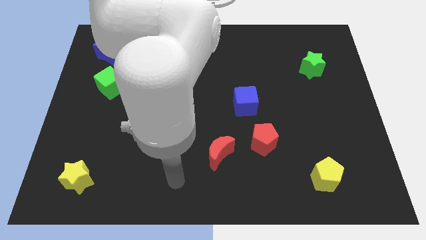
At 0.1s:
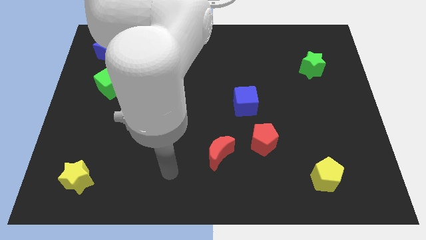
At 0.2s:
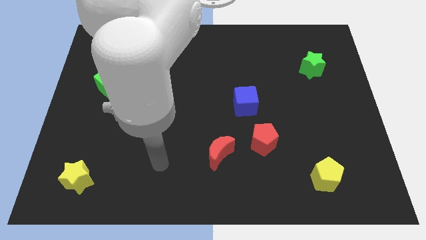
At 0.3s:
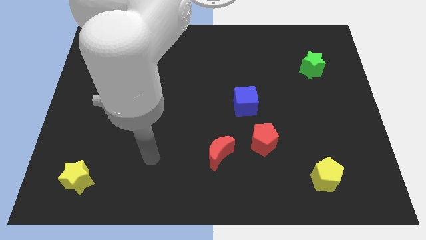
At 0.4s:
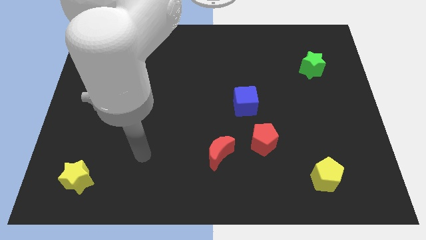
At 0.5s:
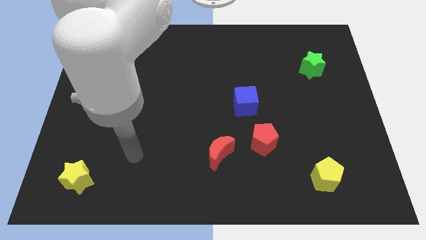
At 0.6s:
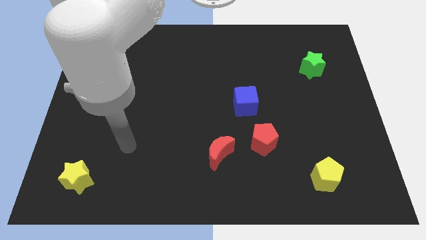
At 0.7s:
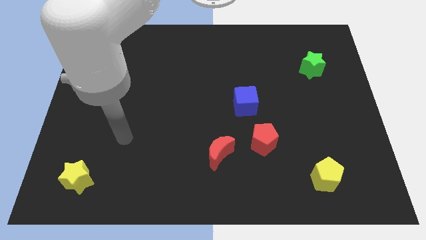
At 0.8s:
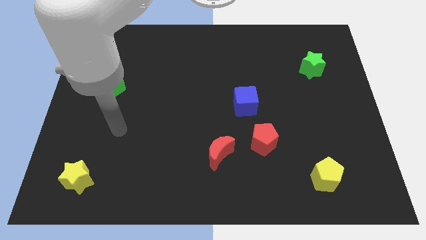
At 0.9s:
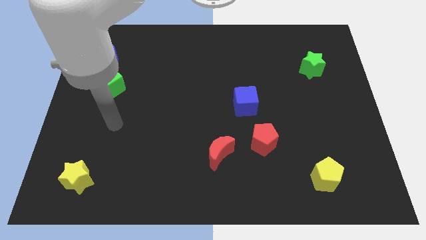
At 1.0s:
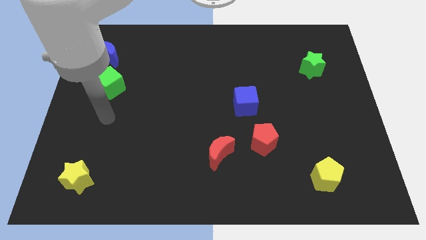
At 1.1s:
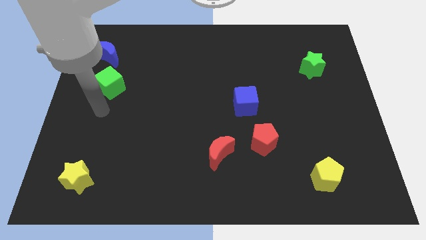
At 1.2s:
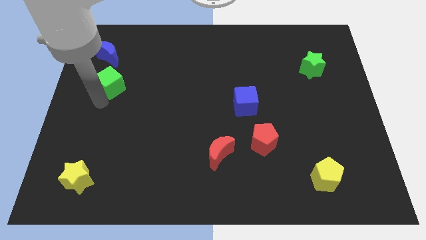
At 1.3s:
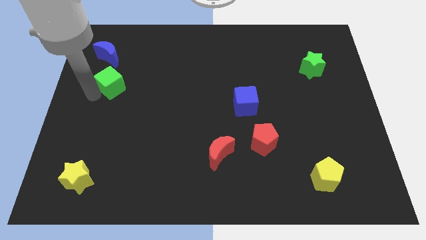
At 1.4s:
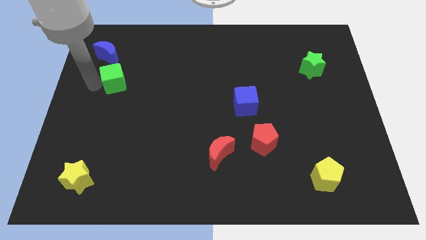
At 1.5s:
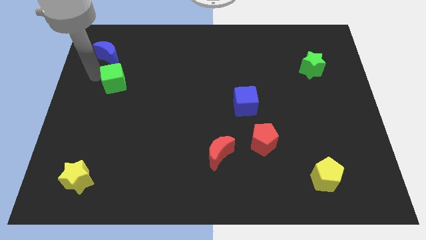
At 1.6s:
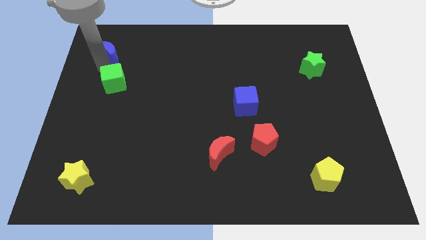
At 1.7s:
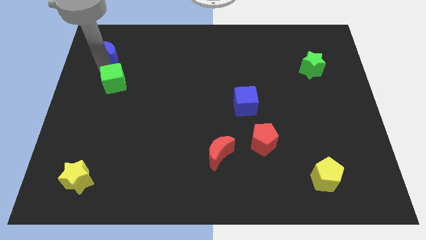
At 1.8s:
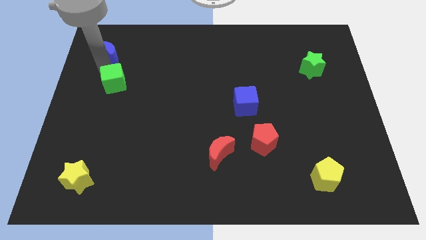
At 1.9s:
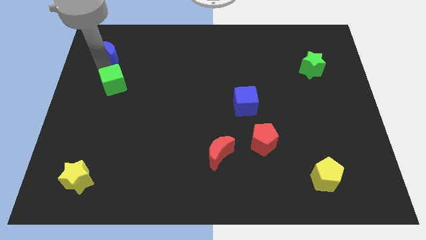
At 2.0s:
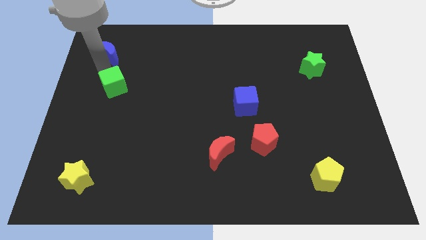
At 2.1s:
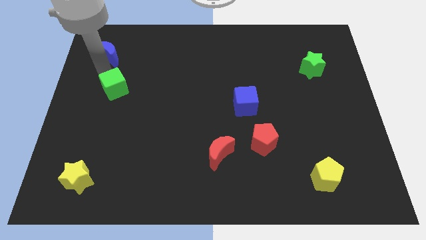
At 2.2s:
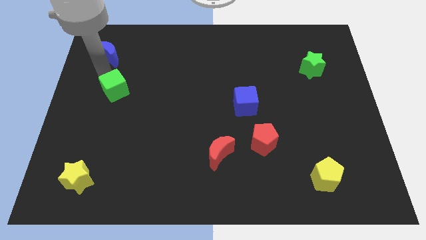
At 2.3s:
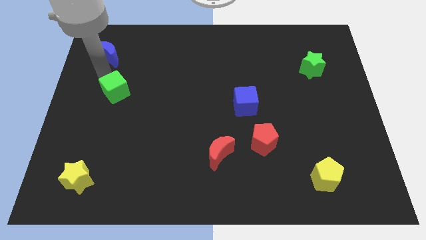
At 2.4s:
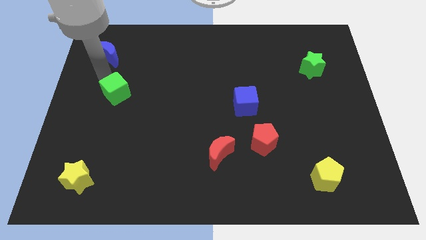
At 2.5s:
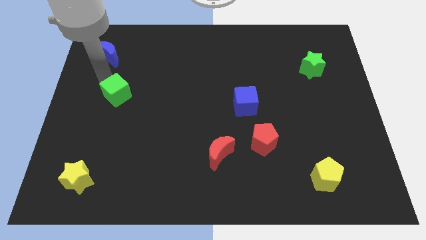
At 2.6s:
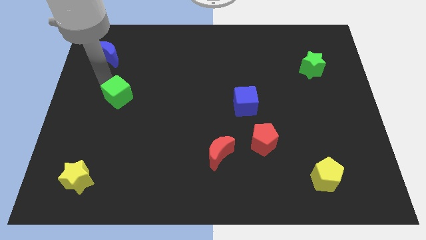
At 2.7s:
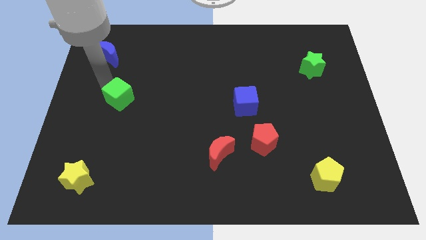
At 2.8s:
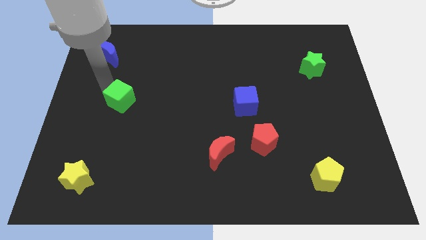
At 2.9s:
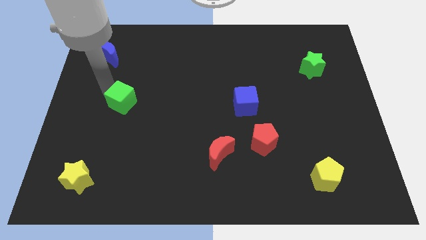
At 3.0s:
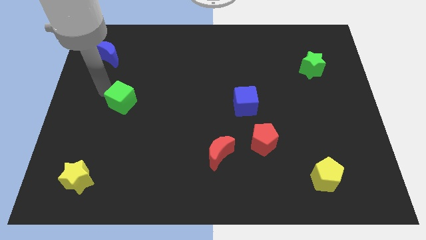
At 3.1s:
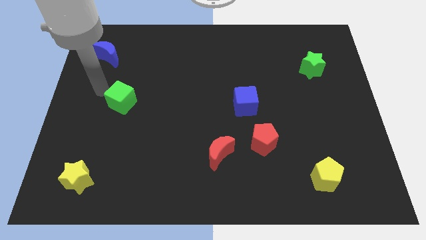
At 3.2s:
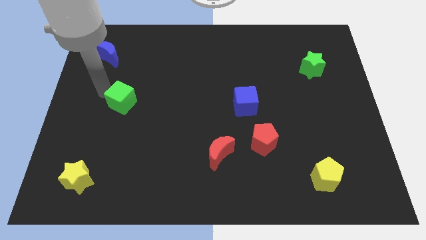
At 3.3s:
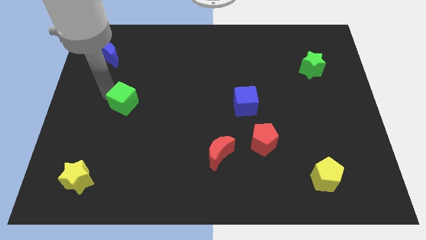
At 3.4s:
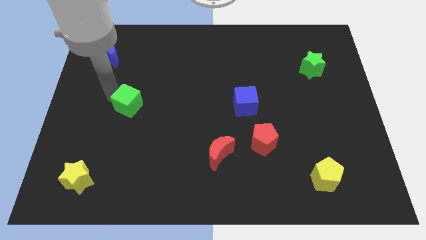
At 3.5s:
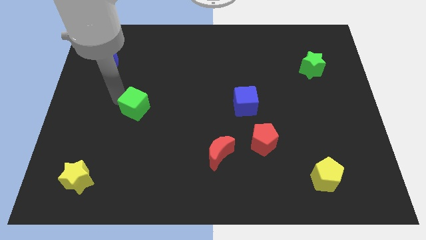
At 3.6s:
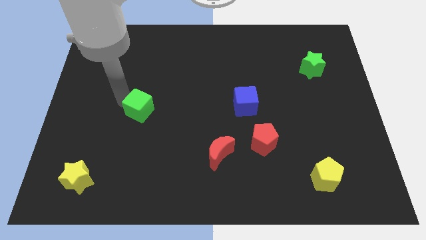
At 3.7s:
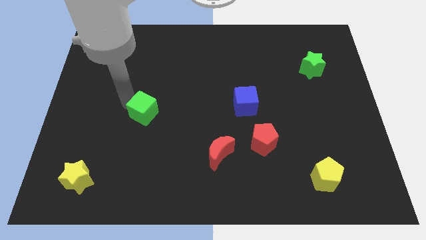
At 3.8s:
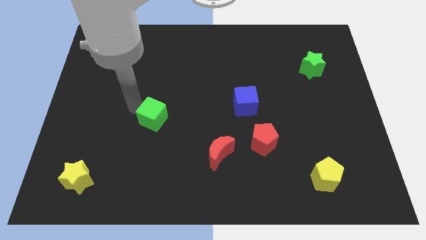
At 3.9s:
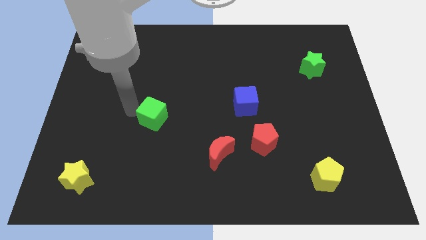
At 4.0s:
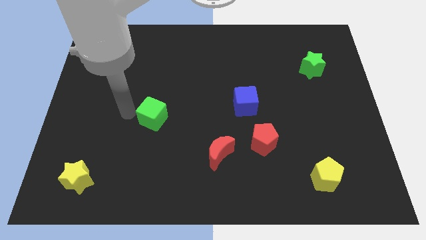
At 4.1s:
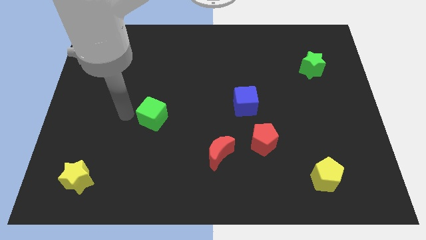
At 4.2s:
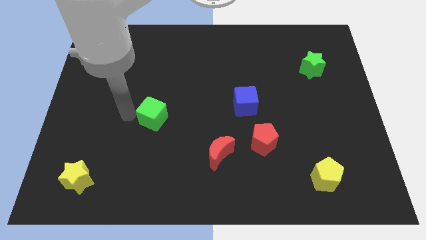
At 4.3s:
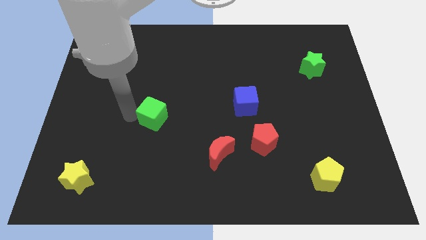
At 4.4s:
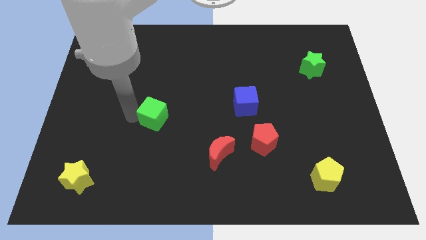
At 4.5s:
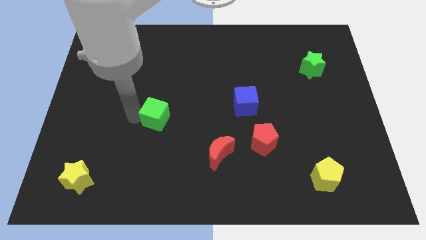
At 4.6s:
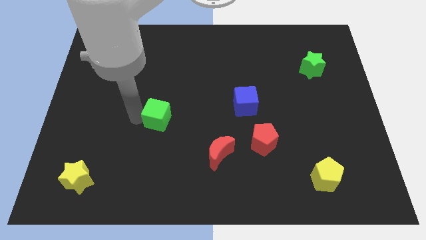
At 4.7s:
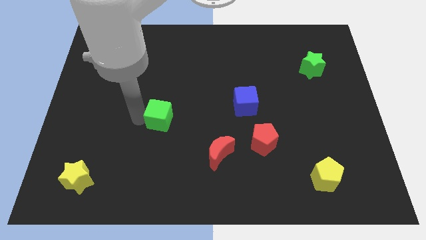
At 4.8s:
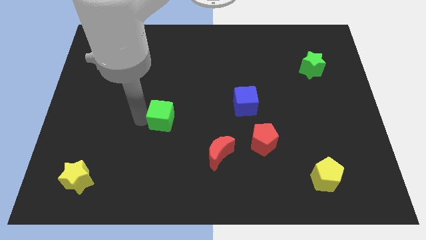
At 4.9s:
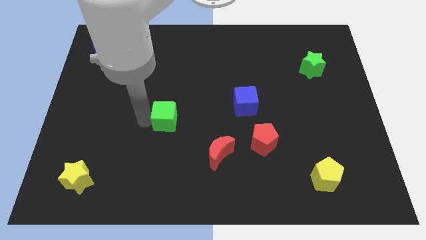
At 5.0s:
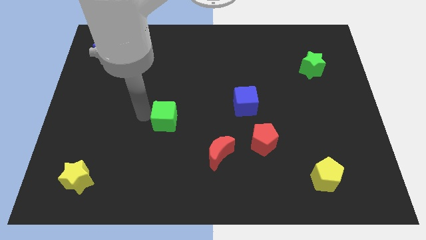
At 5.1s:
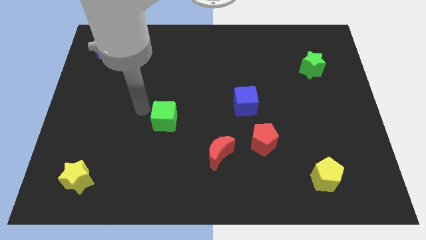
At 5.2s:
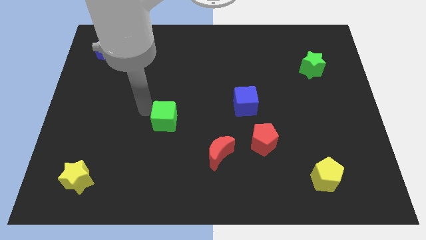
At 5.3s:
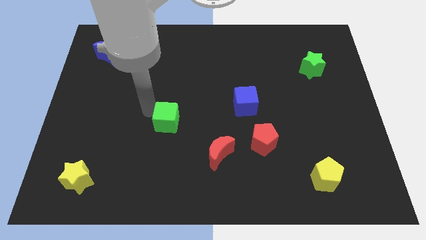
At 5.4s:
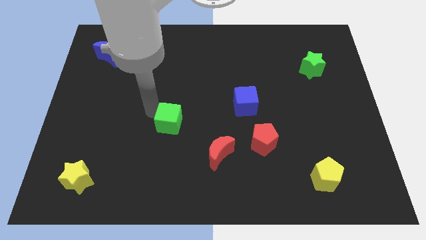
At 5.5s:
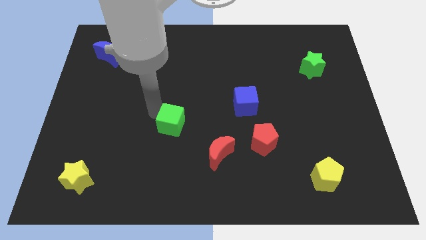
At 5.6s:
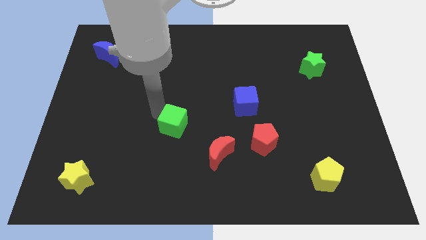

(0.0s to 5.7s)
slide the green cube diagonally up and to the left of the red moon

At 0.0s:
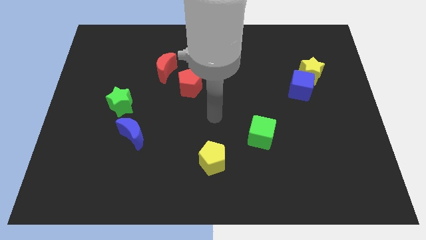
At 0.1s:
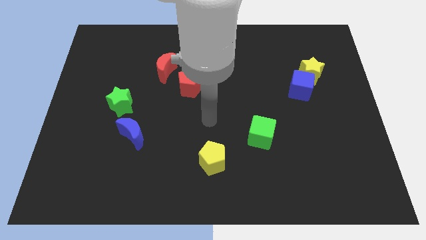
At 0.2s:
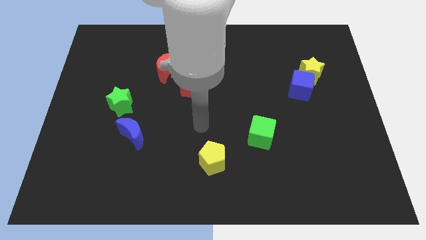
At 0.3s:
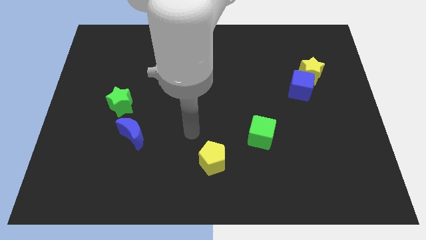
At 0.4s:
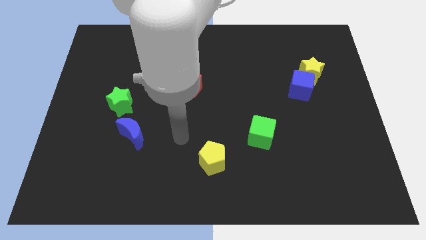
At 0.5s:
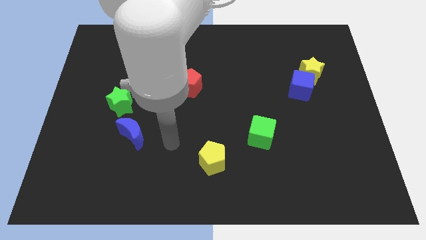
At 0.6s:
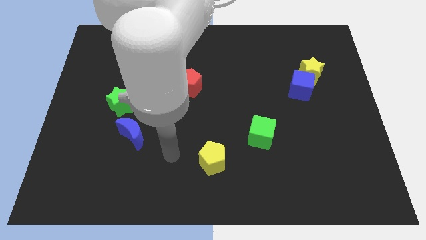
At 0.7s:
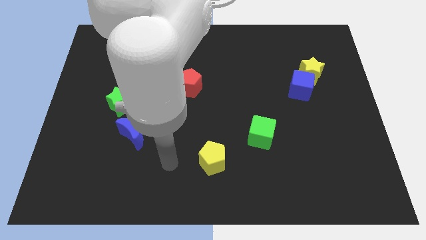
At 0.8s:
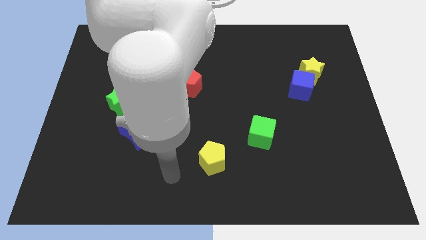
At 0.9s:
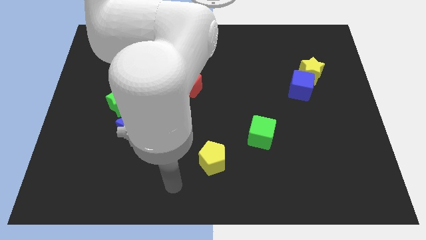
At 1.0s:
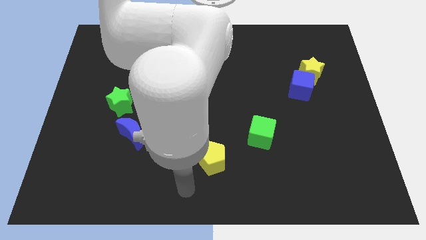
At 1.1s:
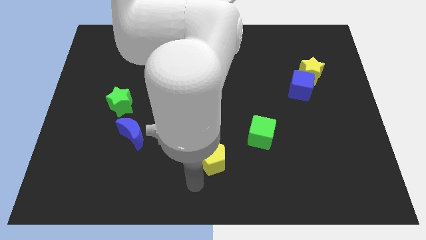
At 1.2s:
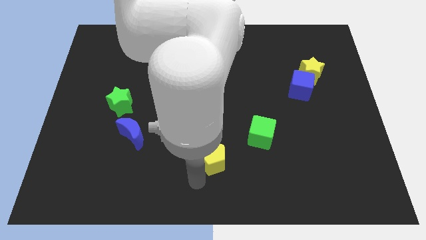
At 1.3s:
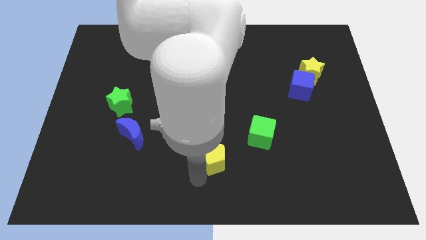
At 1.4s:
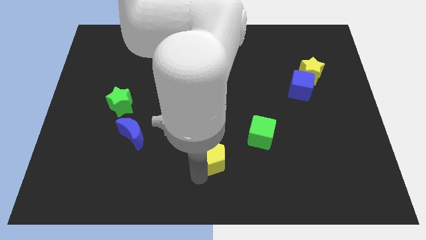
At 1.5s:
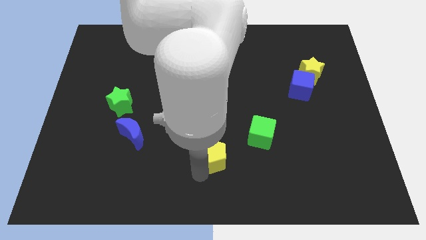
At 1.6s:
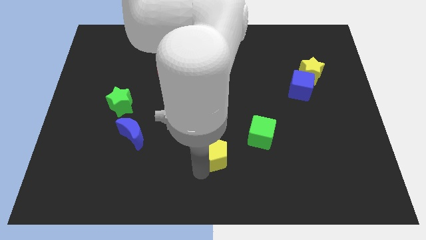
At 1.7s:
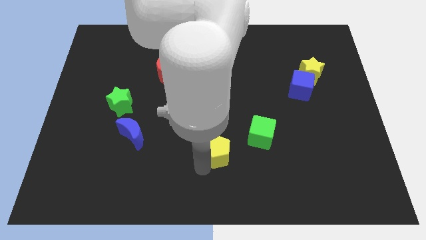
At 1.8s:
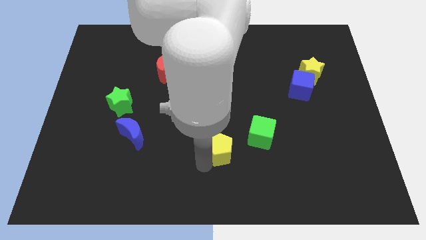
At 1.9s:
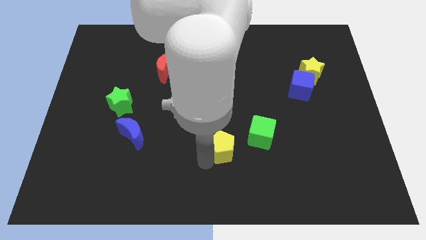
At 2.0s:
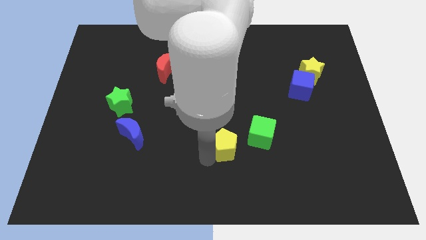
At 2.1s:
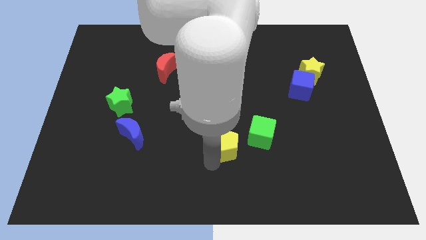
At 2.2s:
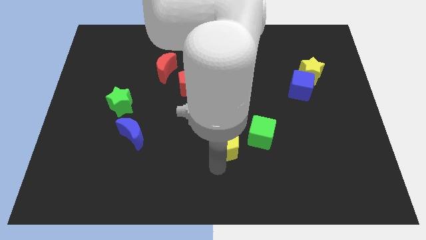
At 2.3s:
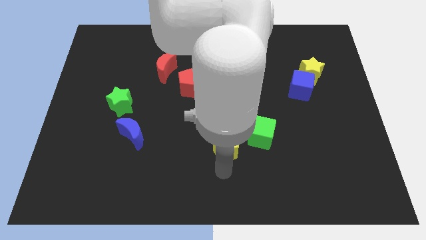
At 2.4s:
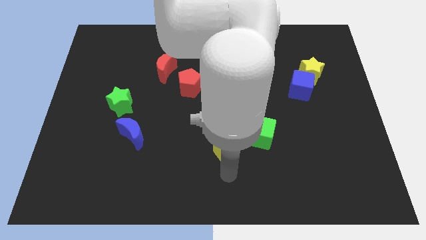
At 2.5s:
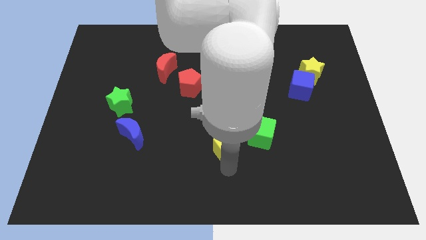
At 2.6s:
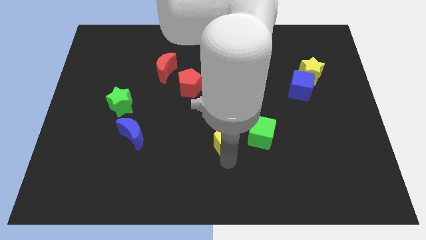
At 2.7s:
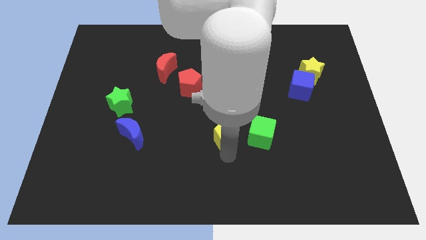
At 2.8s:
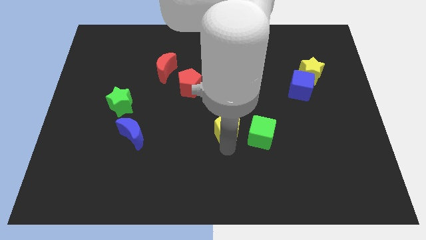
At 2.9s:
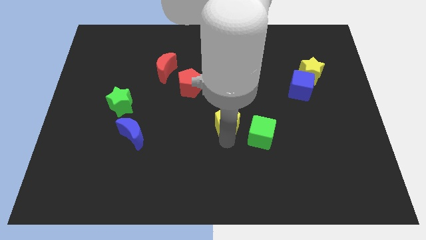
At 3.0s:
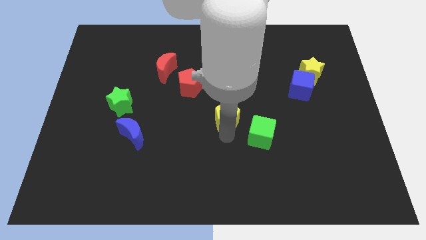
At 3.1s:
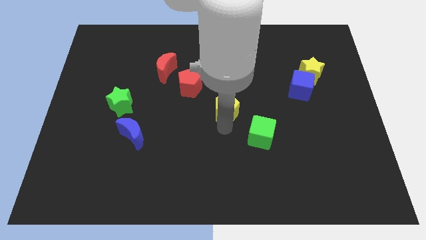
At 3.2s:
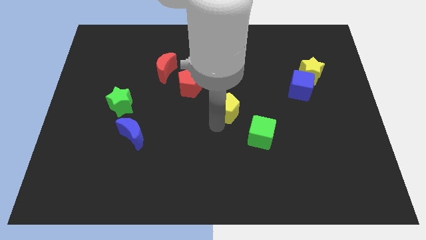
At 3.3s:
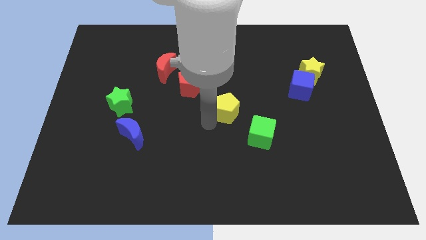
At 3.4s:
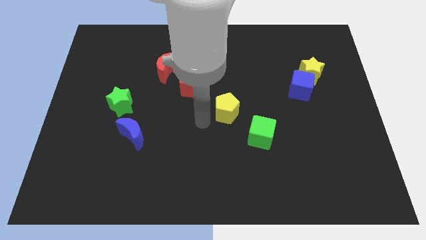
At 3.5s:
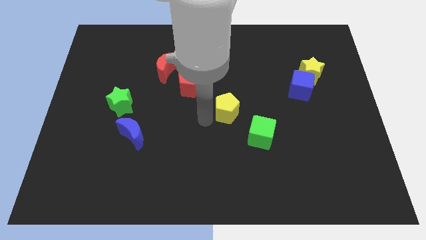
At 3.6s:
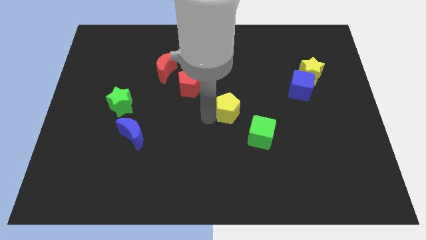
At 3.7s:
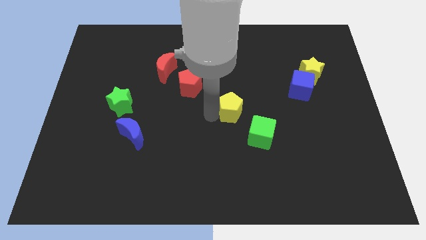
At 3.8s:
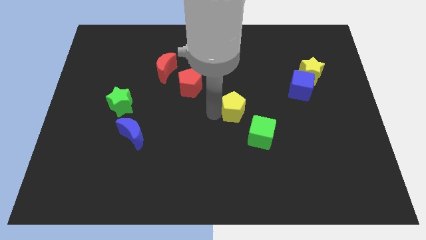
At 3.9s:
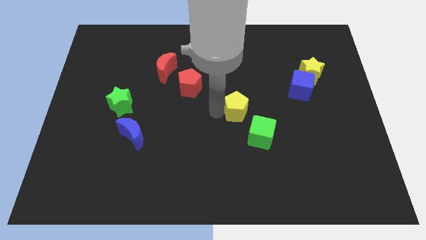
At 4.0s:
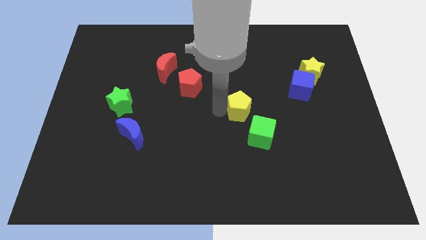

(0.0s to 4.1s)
slide the yellow pentagon to the top side of the green cube
